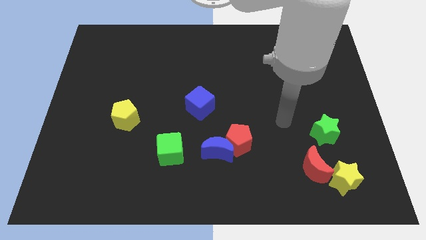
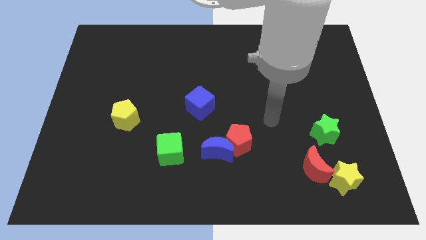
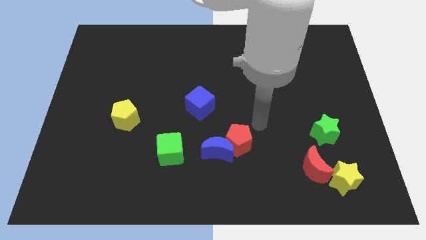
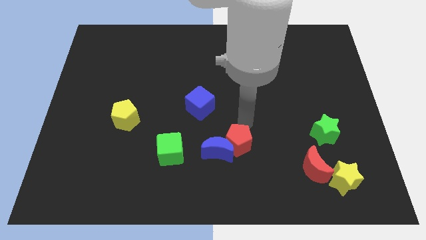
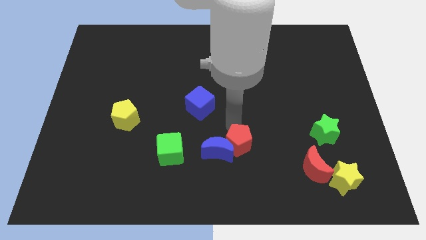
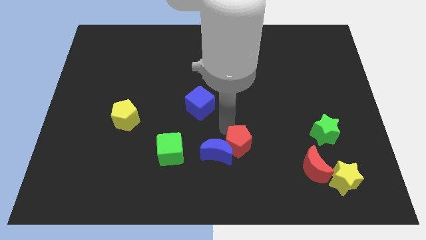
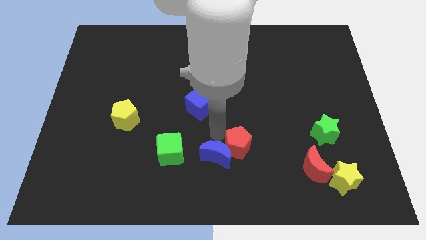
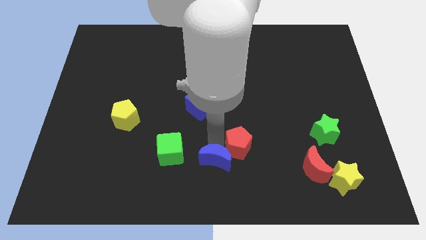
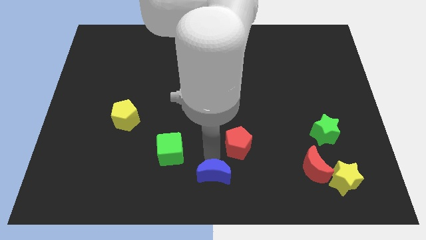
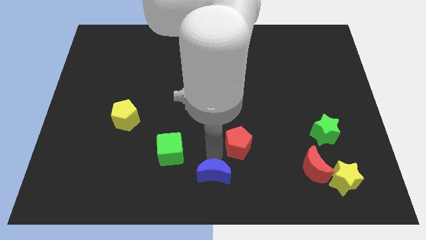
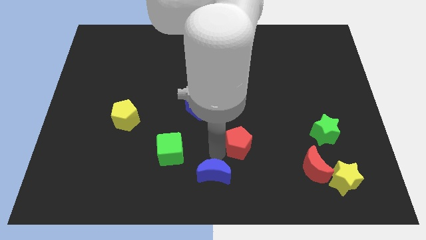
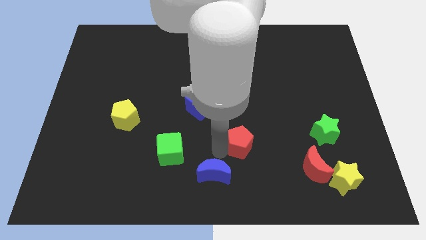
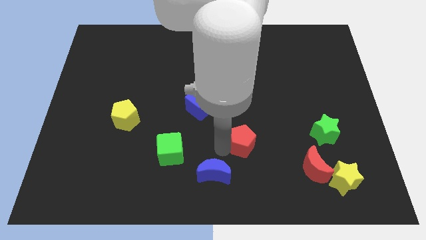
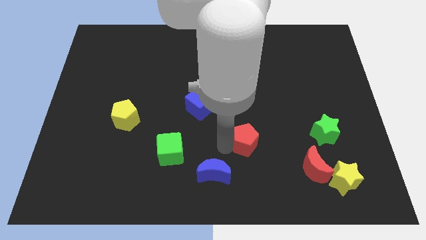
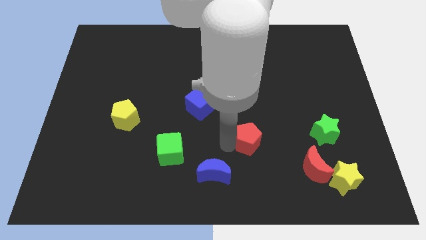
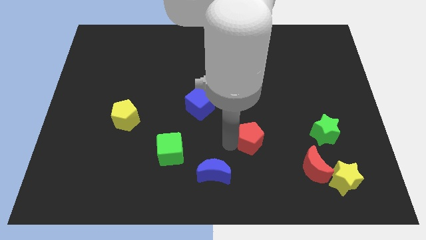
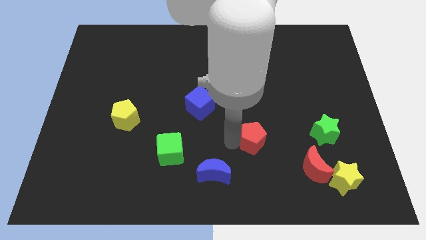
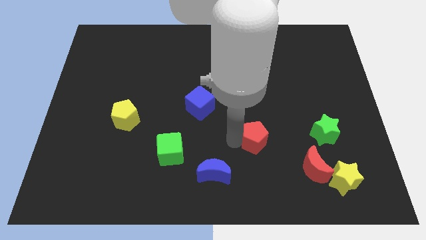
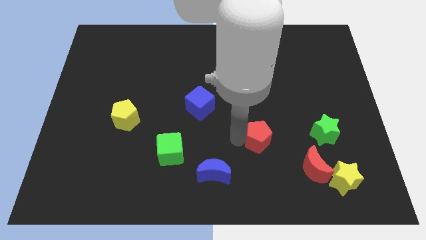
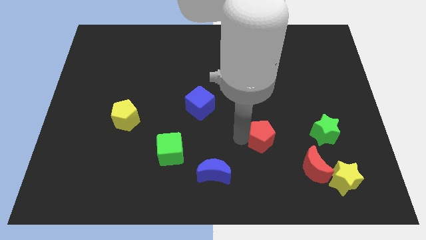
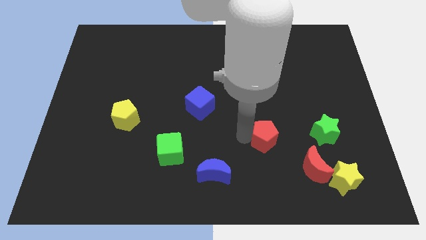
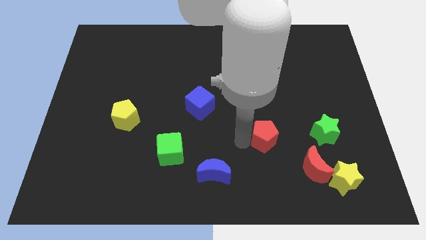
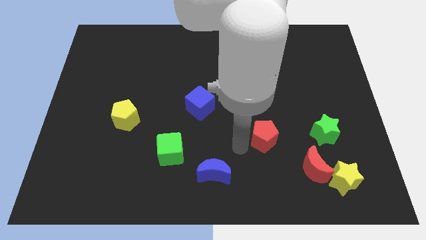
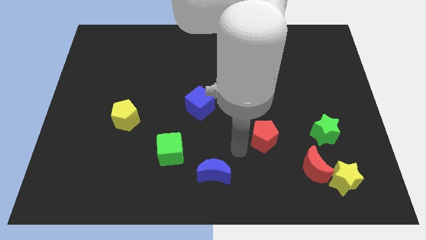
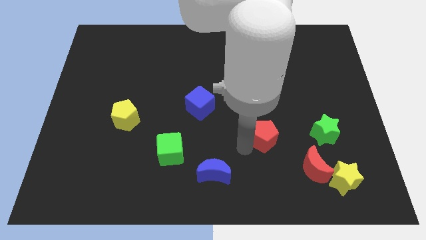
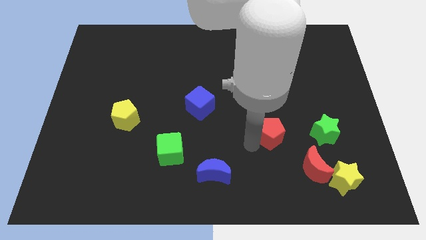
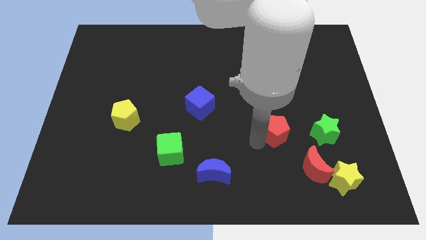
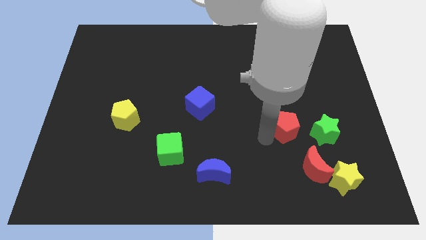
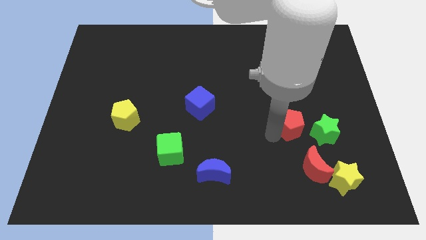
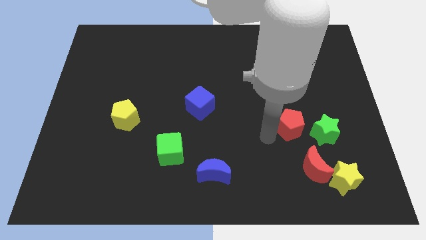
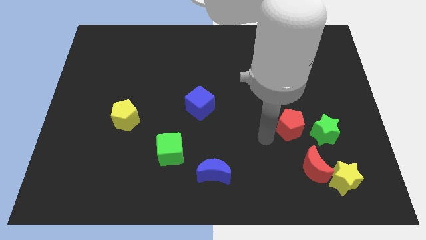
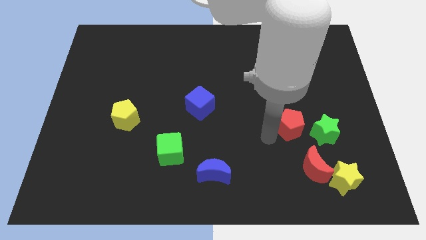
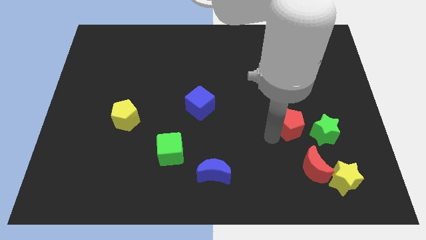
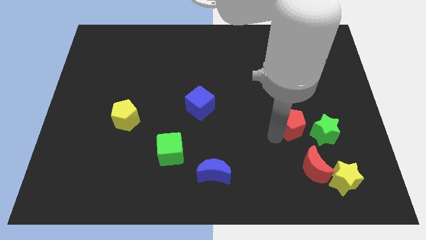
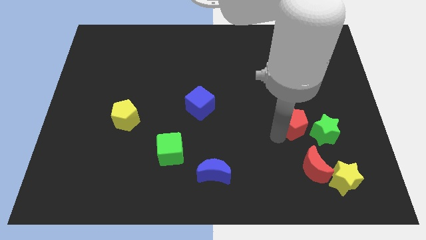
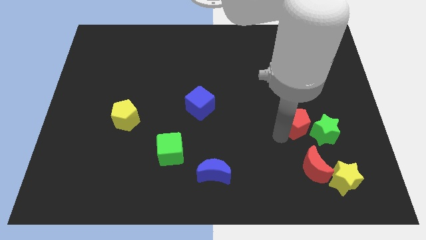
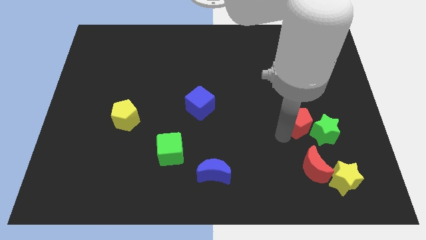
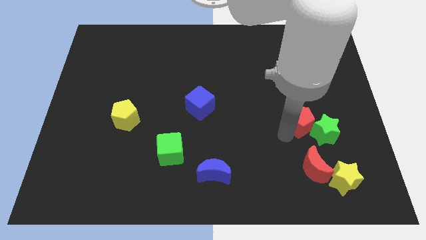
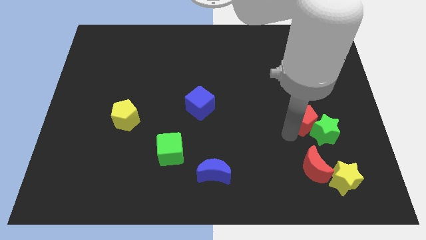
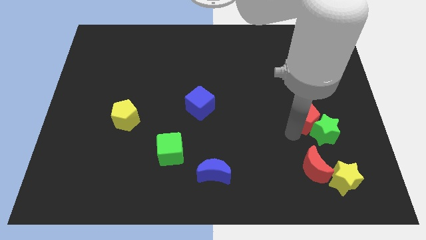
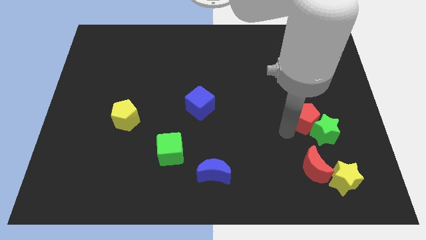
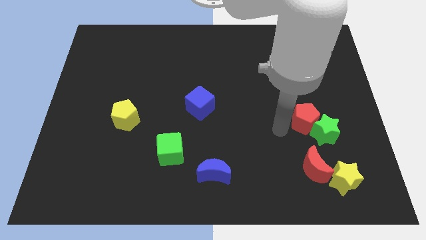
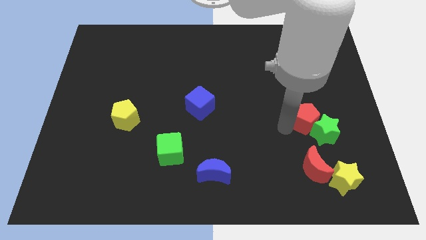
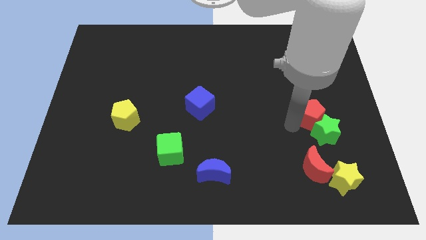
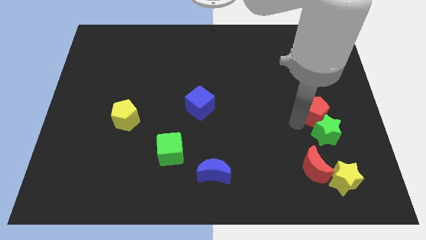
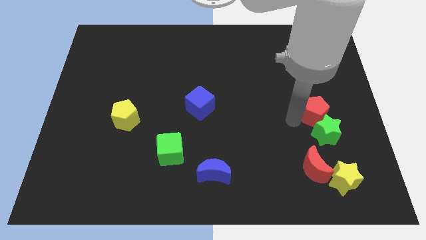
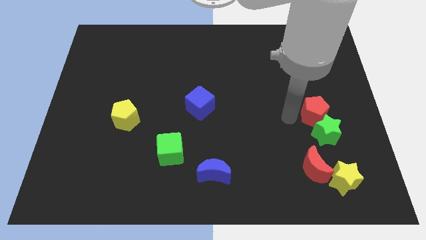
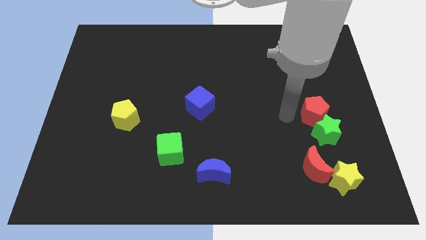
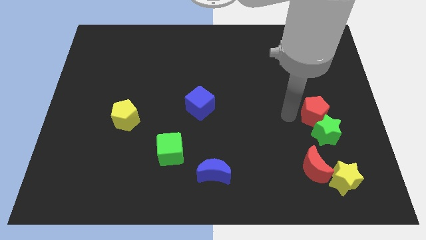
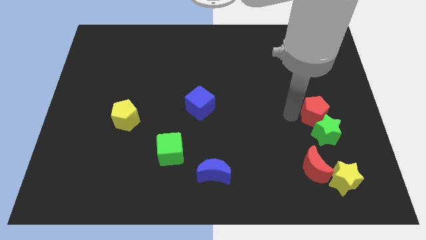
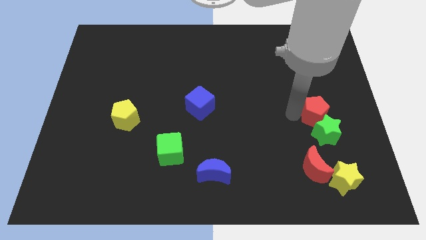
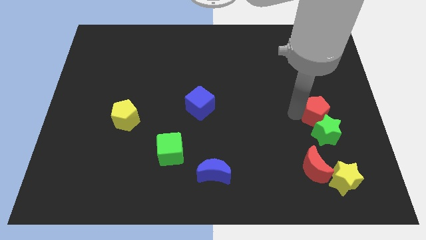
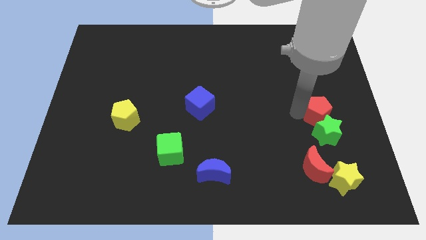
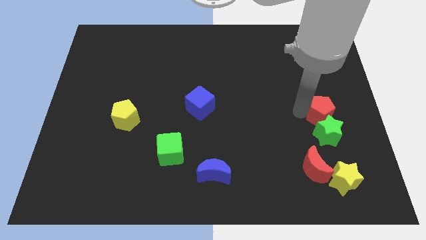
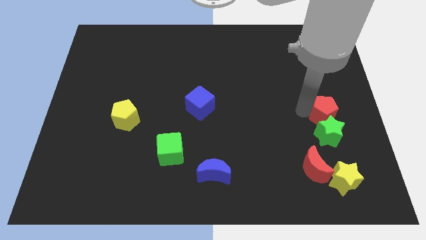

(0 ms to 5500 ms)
put the red pentagon to the center right
